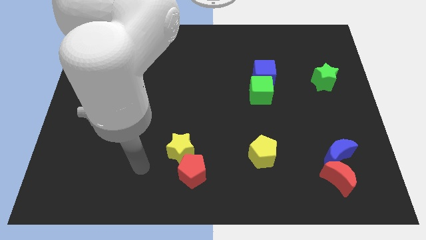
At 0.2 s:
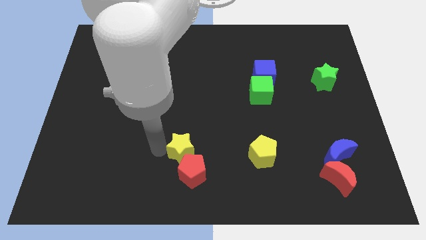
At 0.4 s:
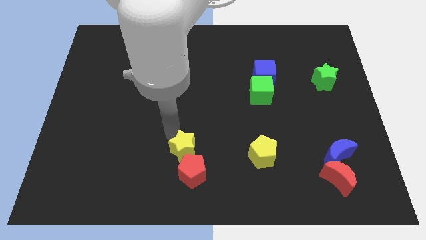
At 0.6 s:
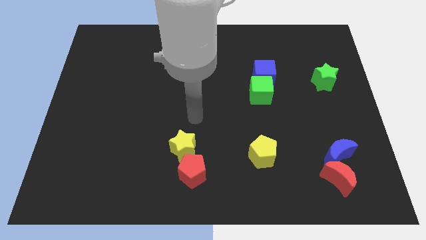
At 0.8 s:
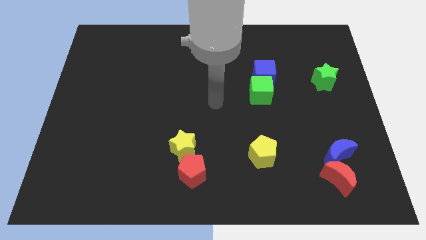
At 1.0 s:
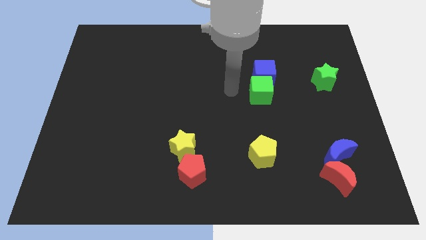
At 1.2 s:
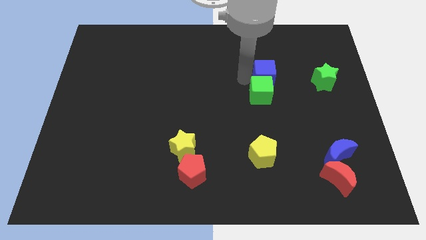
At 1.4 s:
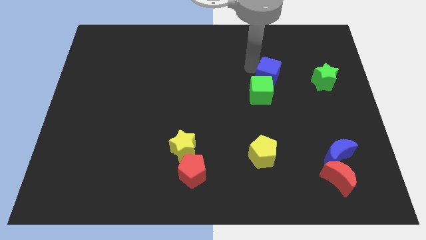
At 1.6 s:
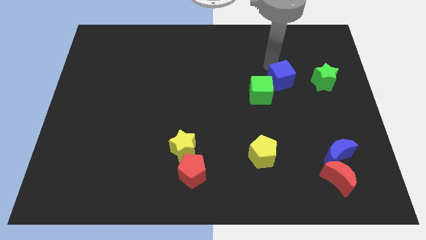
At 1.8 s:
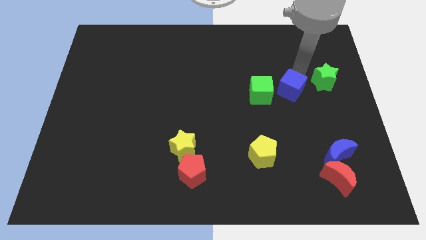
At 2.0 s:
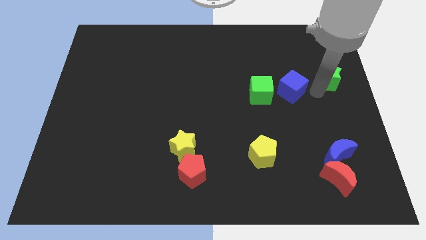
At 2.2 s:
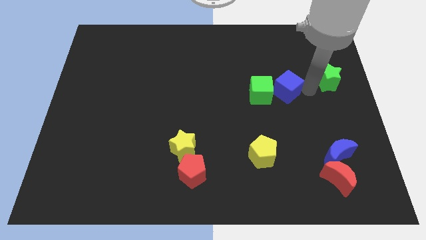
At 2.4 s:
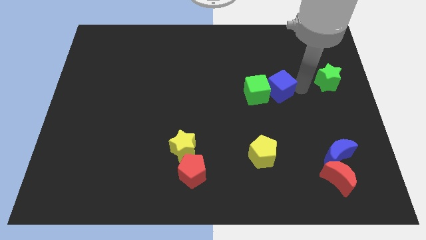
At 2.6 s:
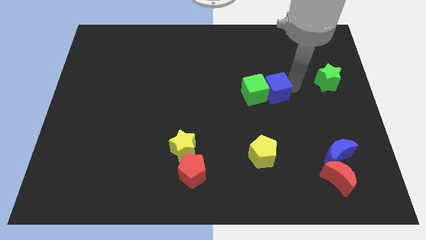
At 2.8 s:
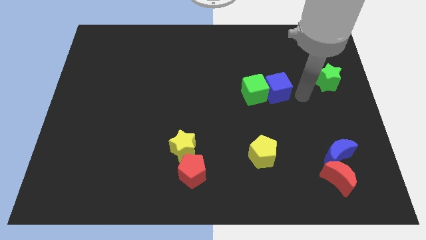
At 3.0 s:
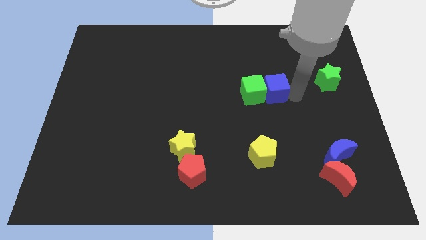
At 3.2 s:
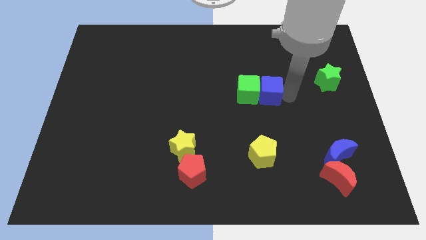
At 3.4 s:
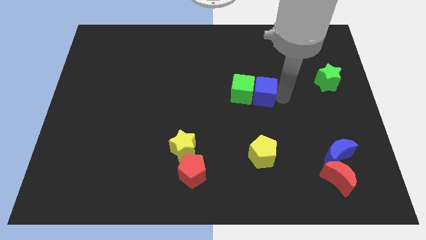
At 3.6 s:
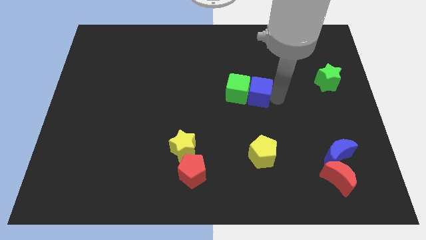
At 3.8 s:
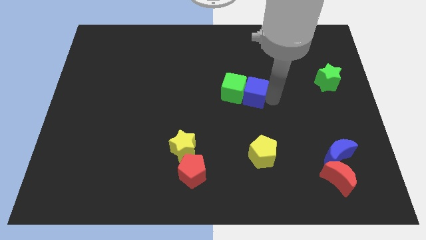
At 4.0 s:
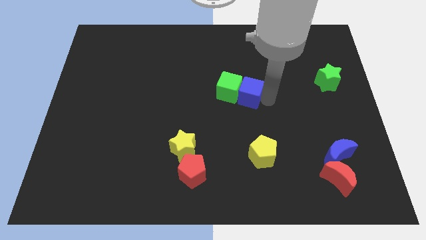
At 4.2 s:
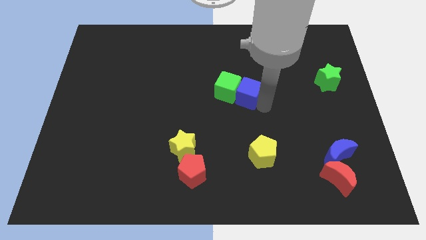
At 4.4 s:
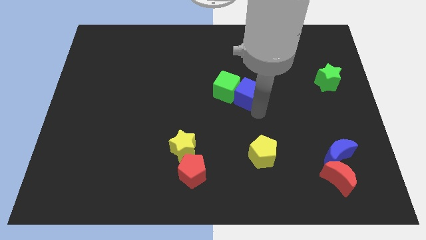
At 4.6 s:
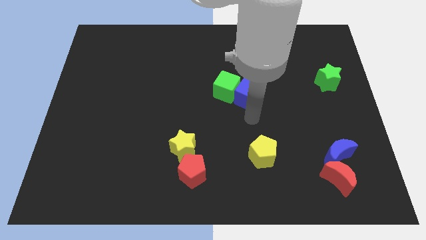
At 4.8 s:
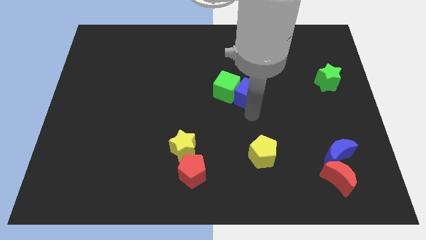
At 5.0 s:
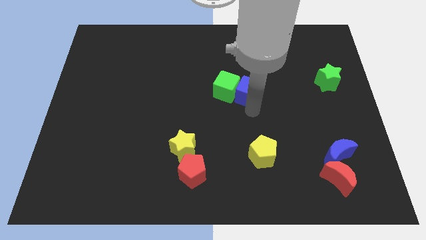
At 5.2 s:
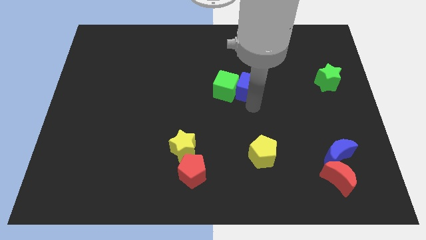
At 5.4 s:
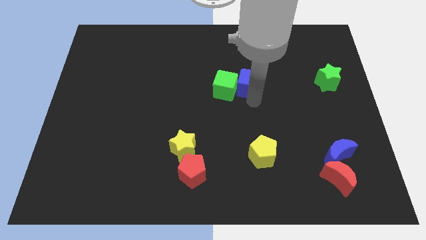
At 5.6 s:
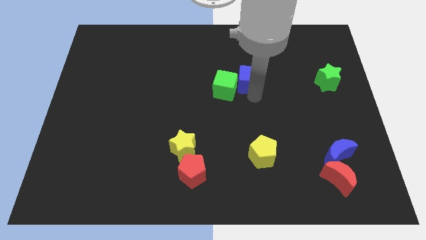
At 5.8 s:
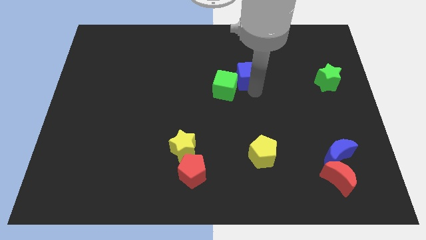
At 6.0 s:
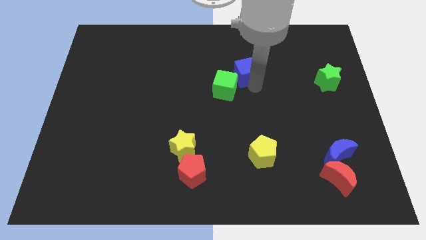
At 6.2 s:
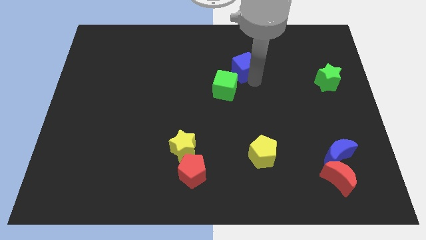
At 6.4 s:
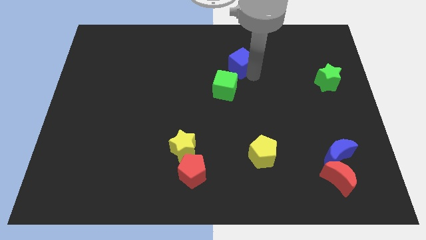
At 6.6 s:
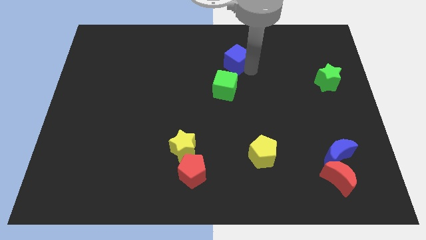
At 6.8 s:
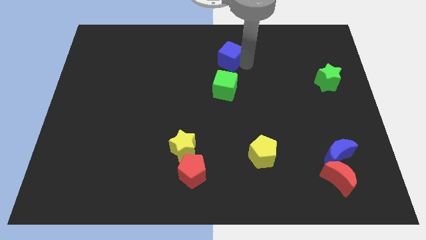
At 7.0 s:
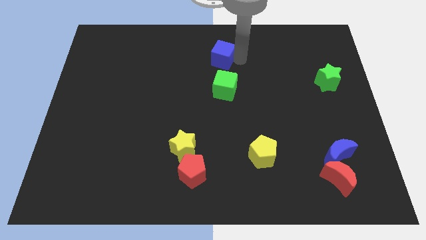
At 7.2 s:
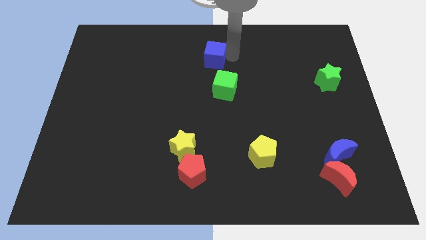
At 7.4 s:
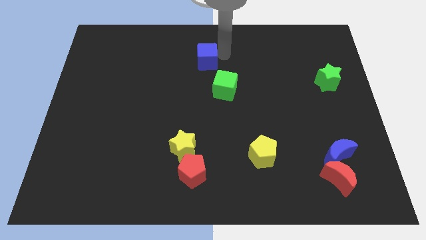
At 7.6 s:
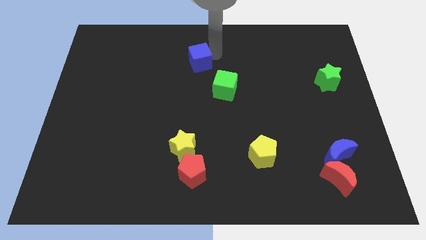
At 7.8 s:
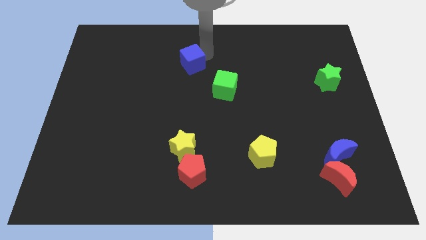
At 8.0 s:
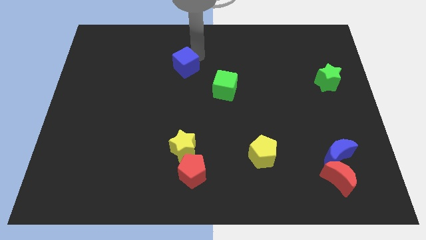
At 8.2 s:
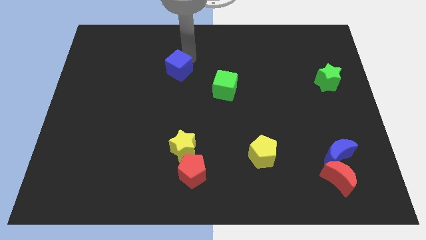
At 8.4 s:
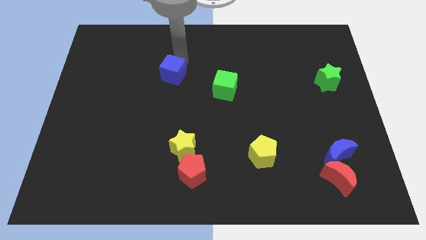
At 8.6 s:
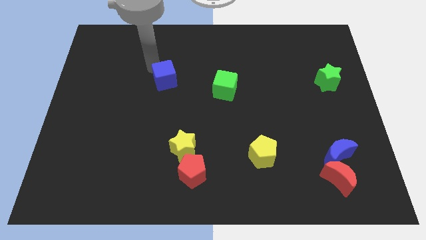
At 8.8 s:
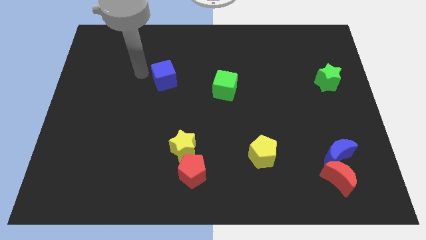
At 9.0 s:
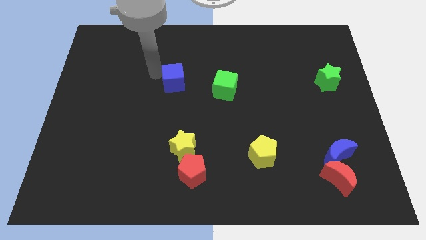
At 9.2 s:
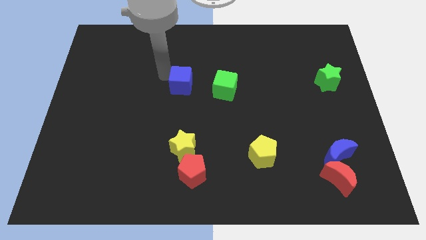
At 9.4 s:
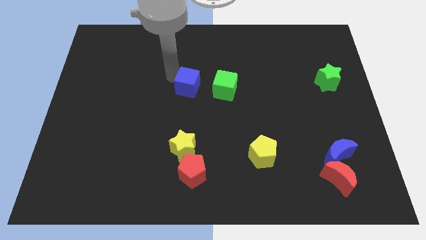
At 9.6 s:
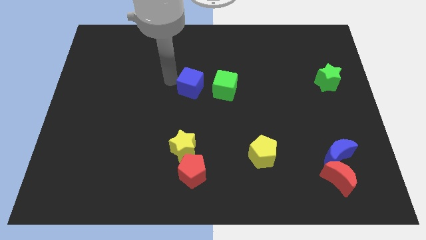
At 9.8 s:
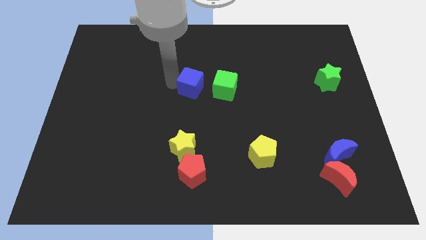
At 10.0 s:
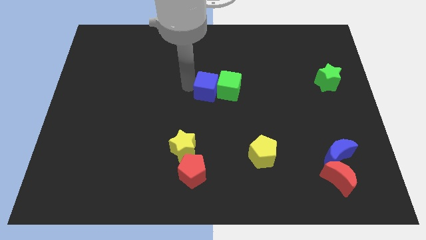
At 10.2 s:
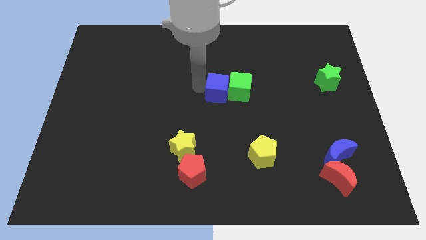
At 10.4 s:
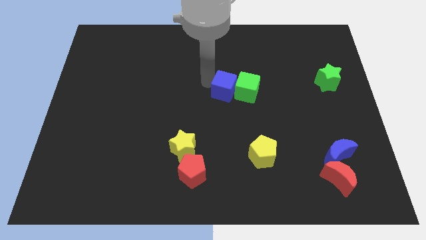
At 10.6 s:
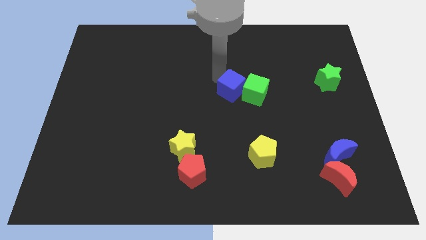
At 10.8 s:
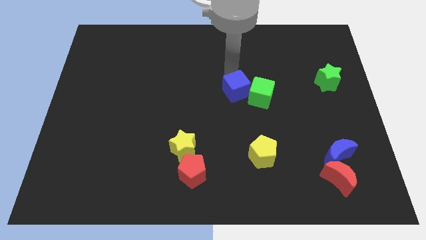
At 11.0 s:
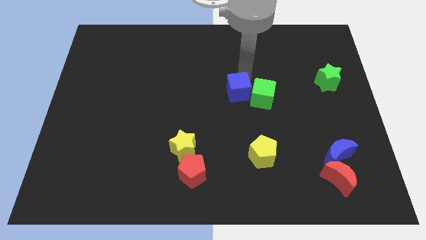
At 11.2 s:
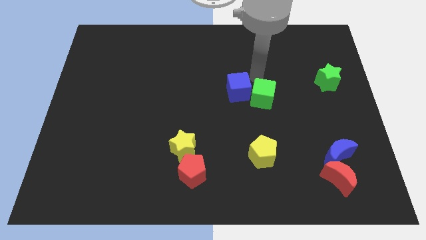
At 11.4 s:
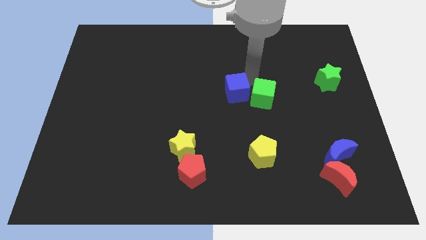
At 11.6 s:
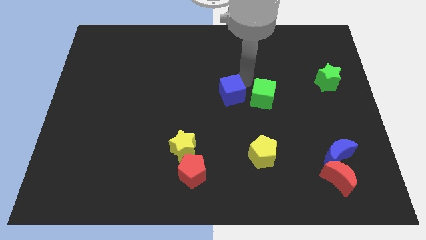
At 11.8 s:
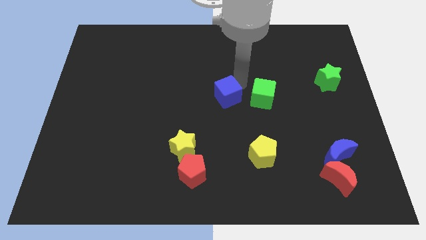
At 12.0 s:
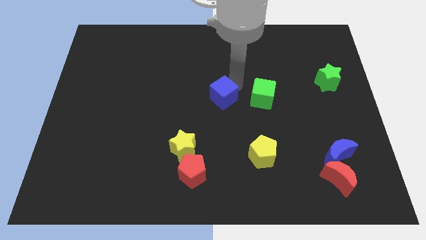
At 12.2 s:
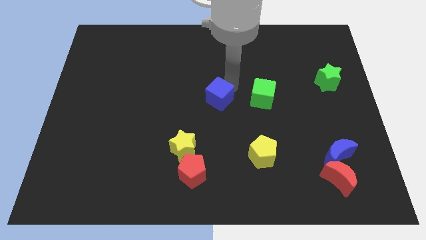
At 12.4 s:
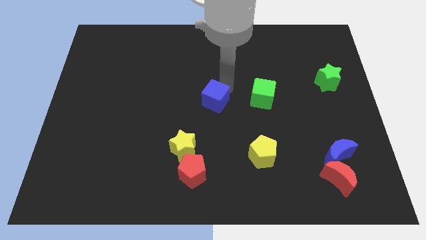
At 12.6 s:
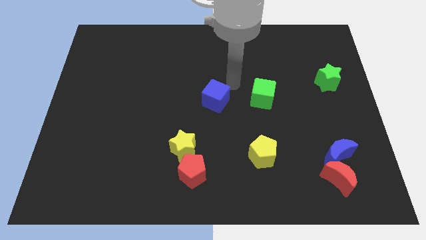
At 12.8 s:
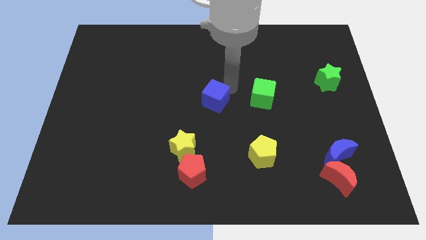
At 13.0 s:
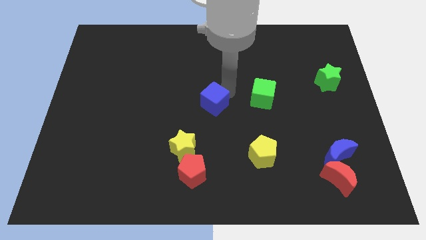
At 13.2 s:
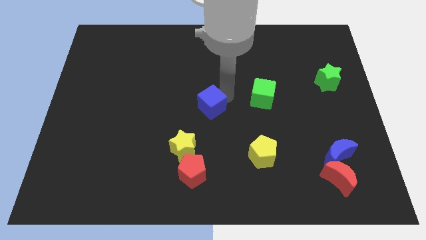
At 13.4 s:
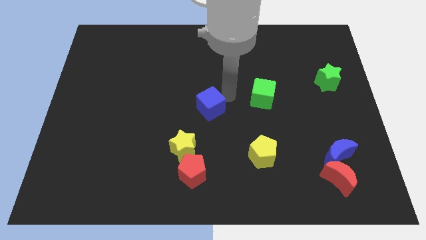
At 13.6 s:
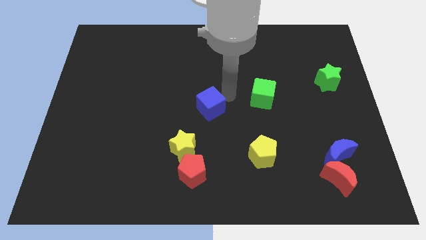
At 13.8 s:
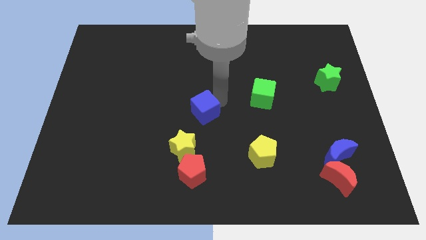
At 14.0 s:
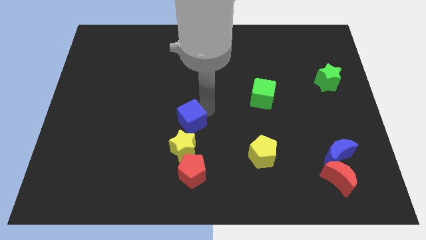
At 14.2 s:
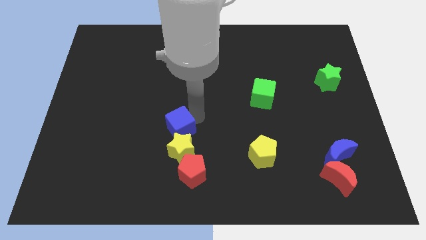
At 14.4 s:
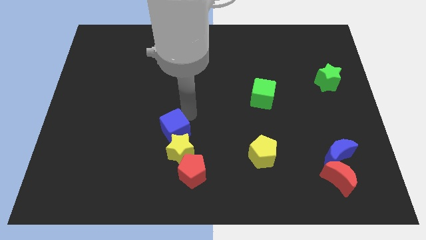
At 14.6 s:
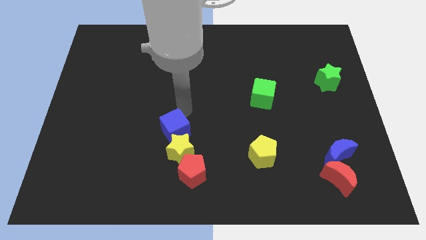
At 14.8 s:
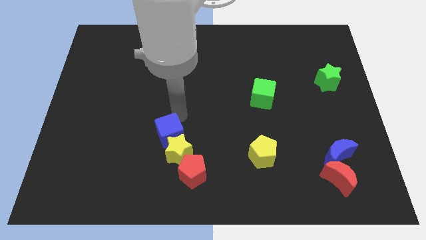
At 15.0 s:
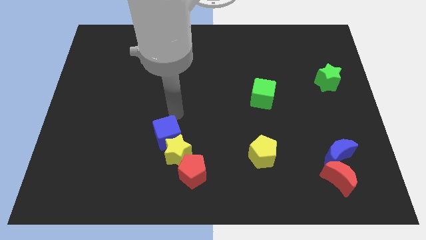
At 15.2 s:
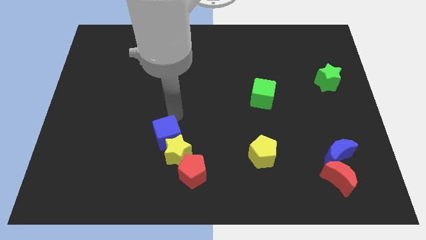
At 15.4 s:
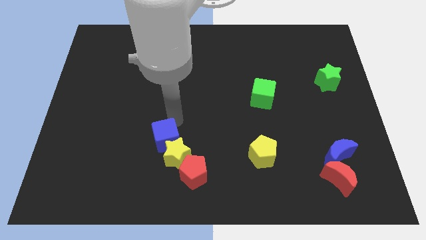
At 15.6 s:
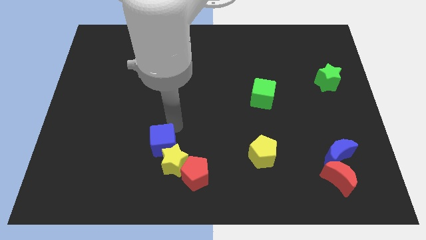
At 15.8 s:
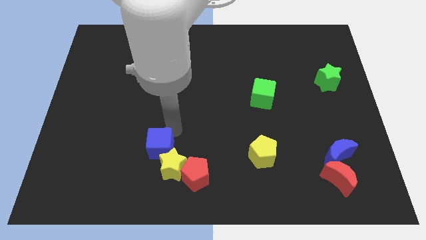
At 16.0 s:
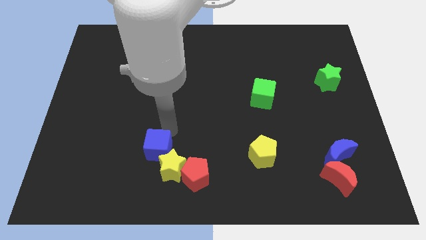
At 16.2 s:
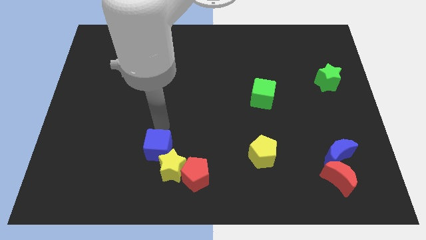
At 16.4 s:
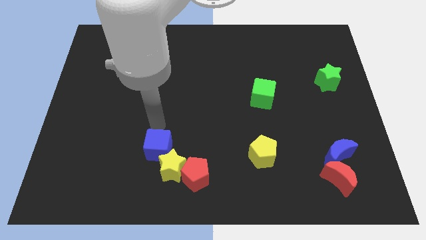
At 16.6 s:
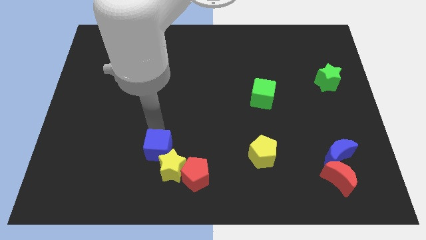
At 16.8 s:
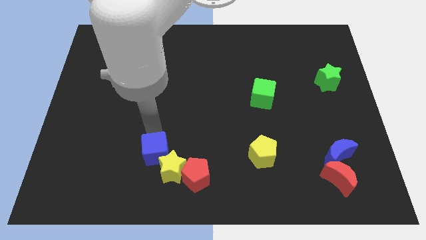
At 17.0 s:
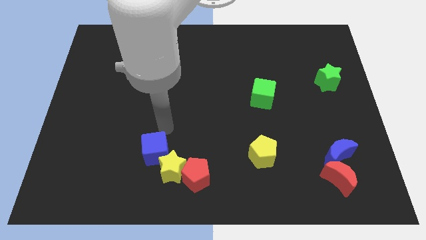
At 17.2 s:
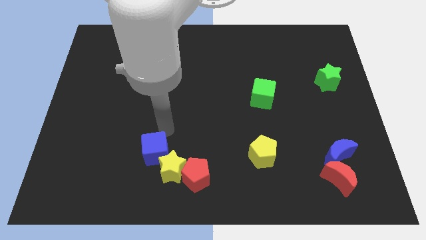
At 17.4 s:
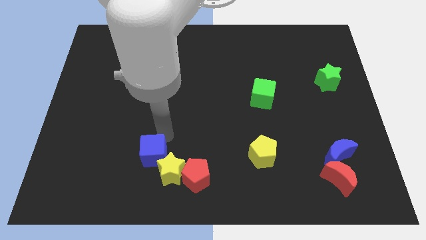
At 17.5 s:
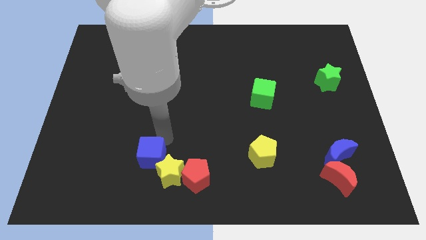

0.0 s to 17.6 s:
push the blue cube to the left side of the red pentagon
